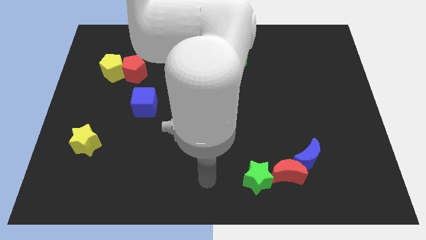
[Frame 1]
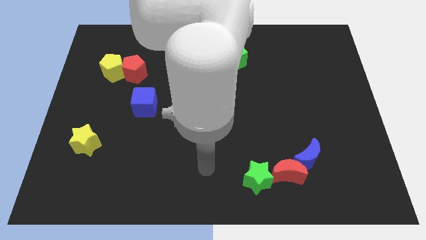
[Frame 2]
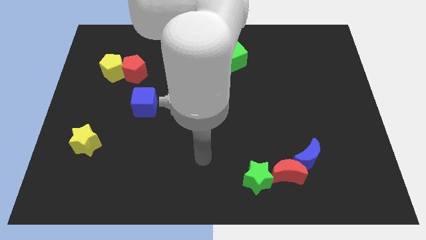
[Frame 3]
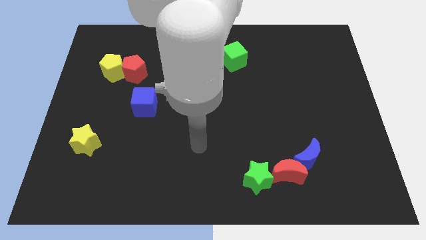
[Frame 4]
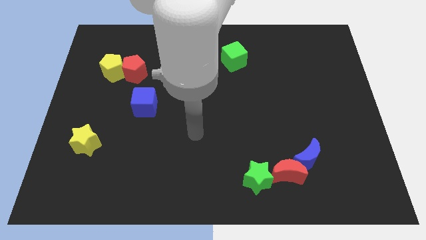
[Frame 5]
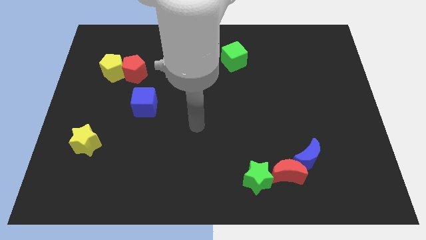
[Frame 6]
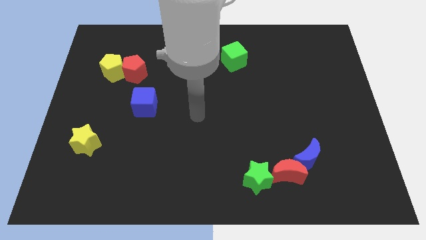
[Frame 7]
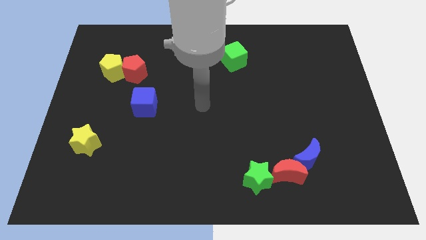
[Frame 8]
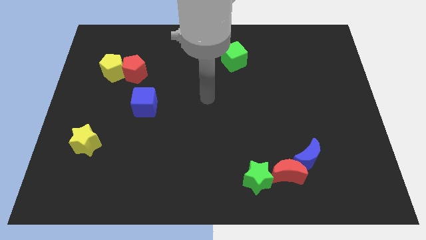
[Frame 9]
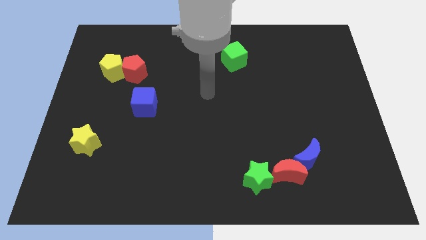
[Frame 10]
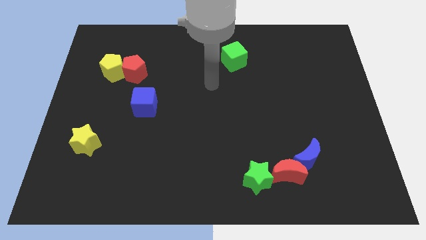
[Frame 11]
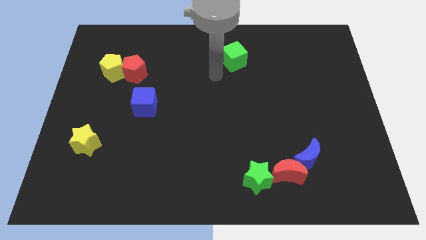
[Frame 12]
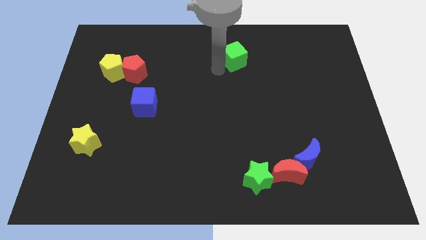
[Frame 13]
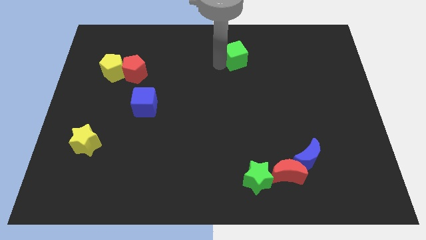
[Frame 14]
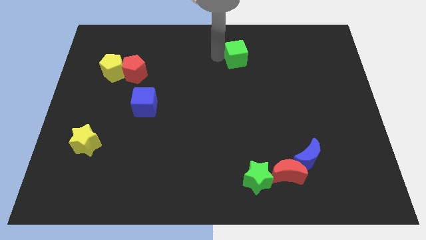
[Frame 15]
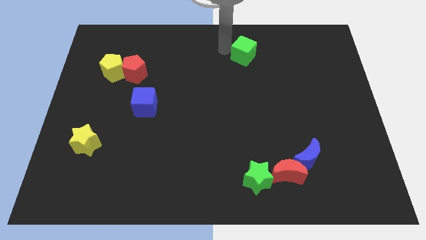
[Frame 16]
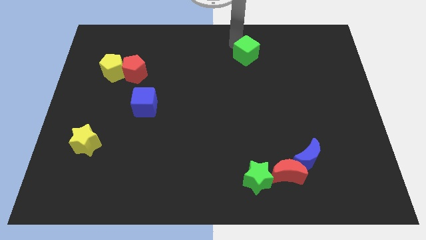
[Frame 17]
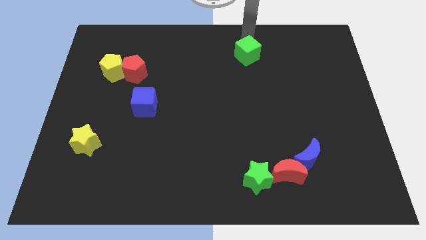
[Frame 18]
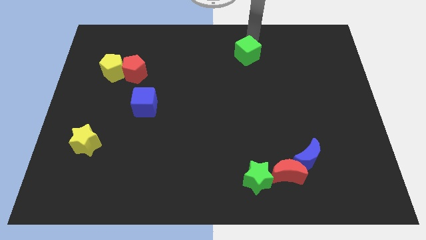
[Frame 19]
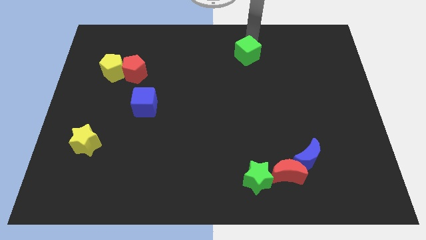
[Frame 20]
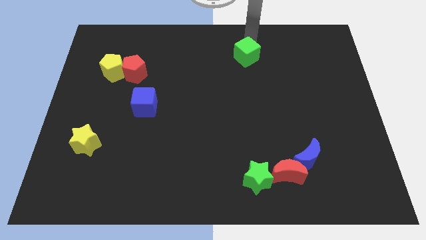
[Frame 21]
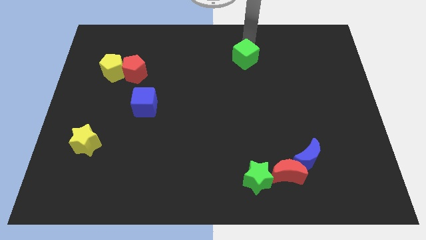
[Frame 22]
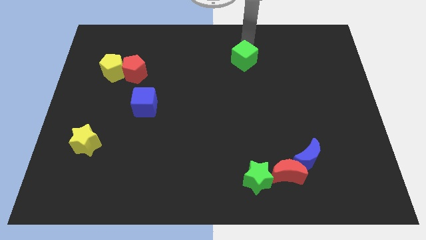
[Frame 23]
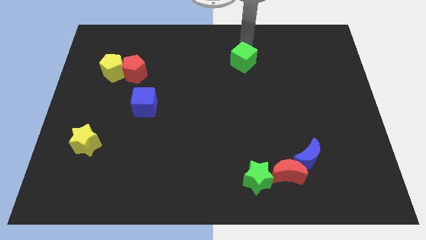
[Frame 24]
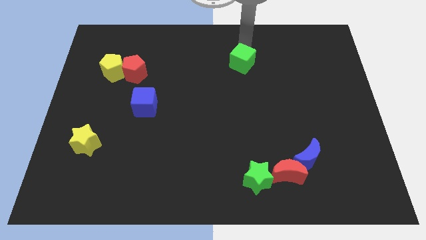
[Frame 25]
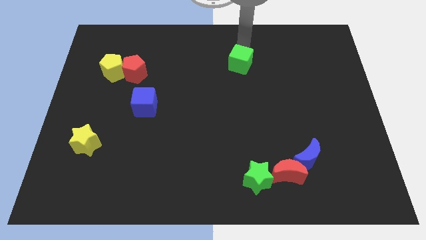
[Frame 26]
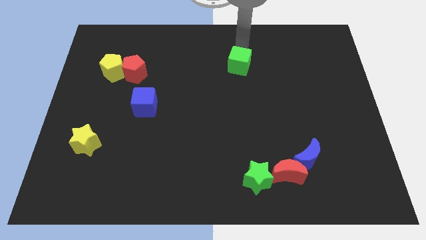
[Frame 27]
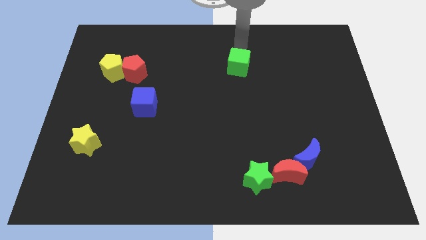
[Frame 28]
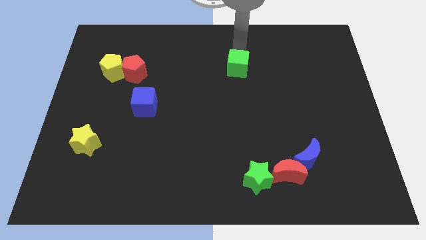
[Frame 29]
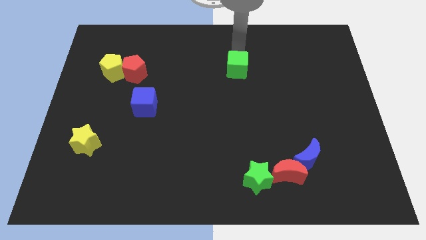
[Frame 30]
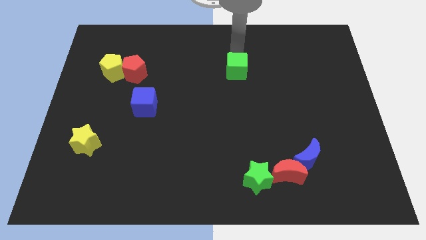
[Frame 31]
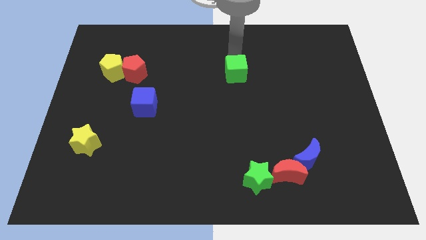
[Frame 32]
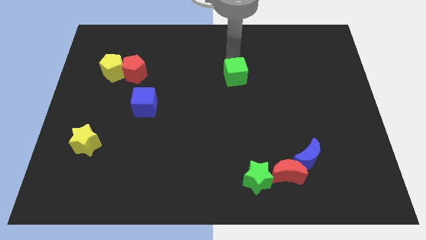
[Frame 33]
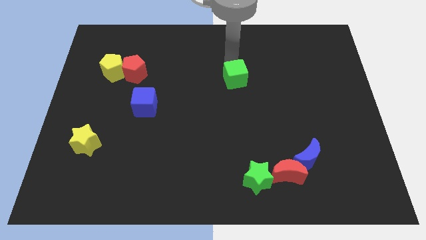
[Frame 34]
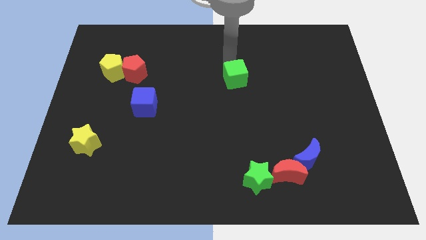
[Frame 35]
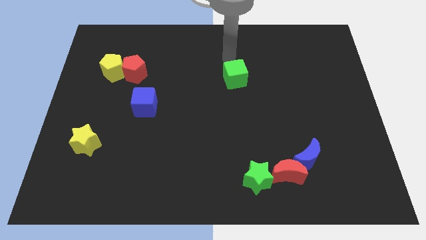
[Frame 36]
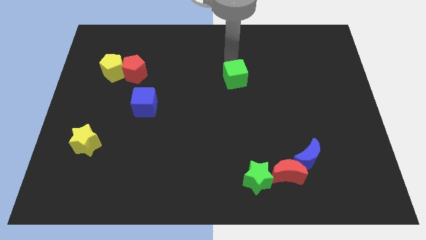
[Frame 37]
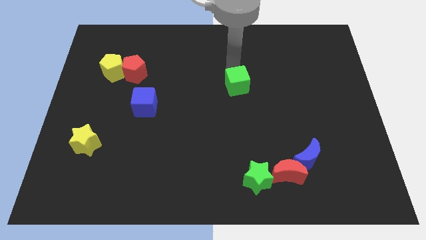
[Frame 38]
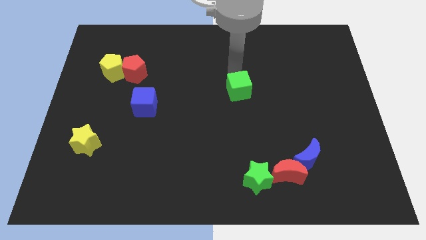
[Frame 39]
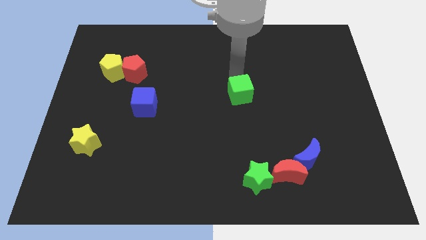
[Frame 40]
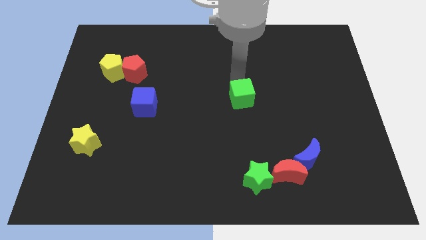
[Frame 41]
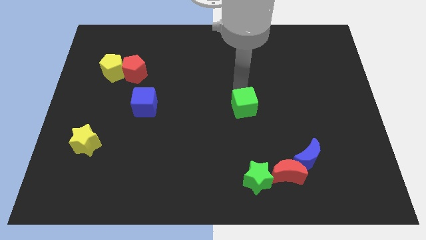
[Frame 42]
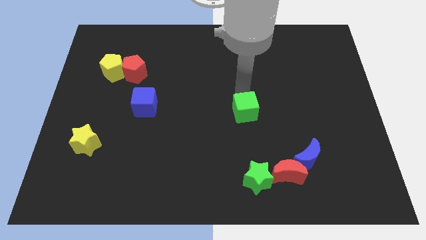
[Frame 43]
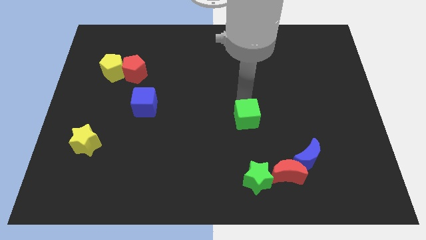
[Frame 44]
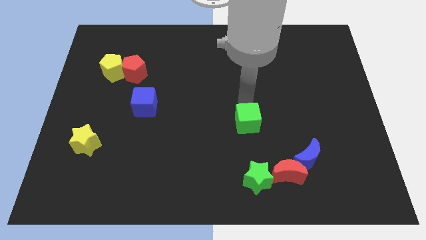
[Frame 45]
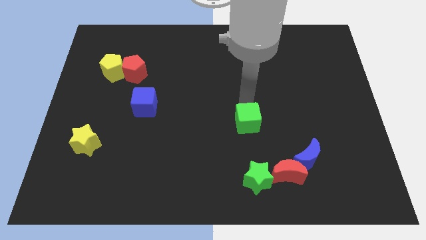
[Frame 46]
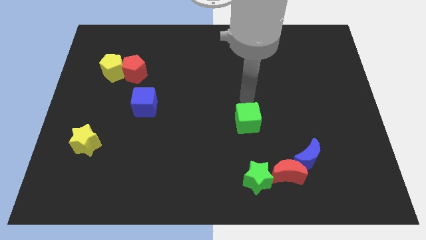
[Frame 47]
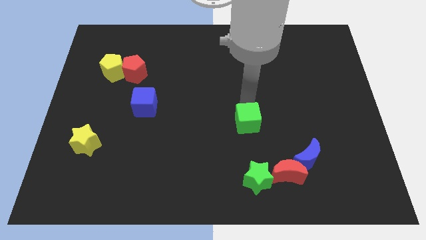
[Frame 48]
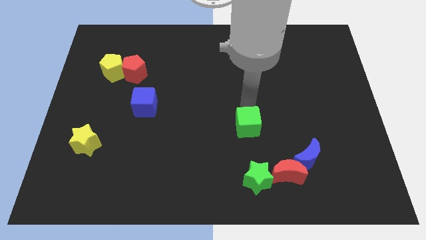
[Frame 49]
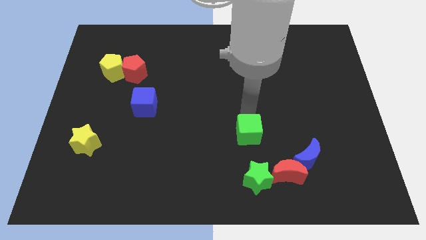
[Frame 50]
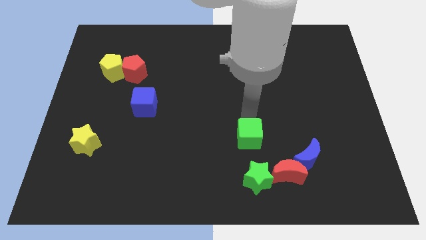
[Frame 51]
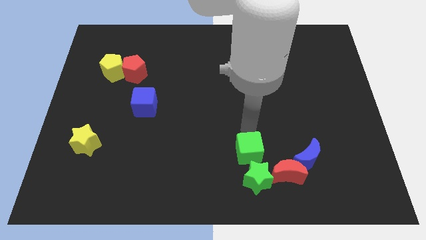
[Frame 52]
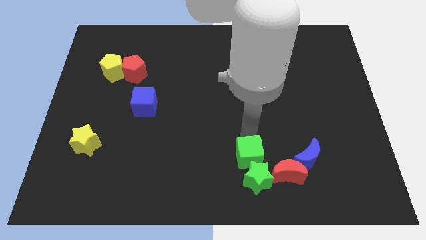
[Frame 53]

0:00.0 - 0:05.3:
put the green cube next to the green star

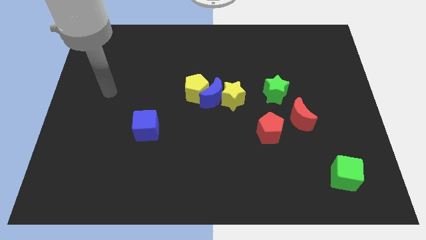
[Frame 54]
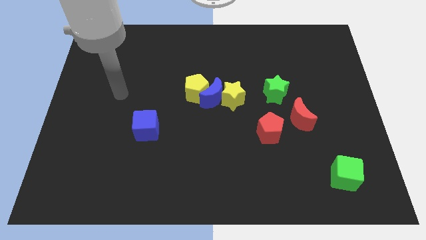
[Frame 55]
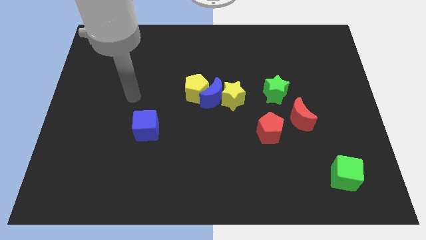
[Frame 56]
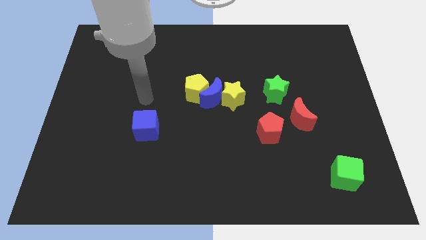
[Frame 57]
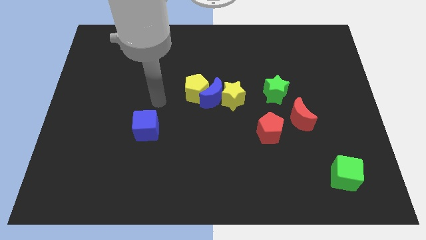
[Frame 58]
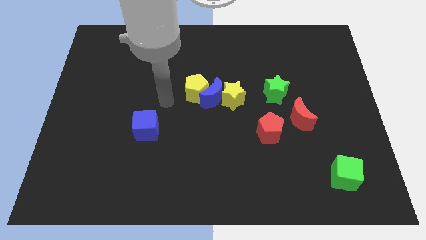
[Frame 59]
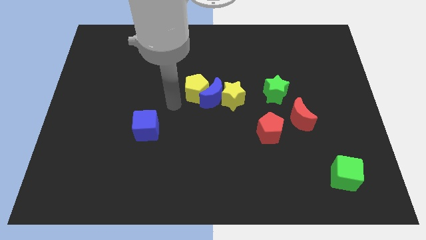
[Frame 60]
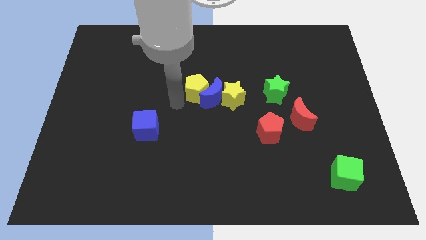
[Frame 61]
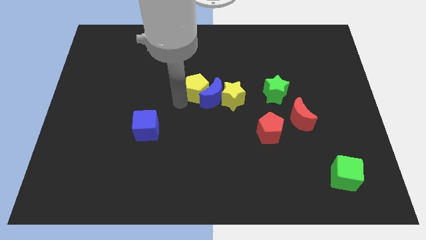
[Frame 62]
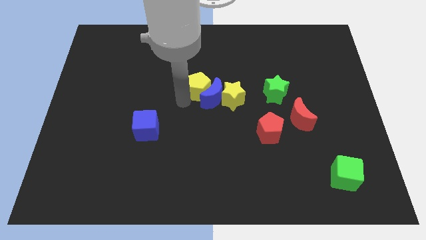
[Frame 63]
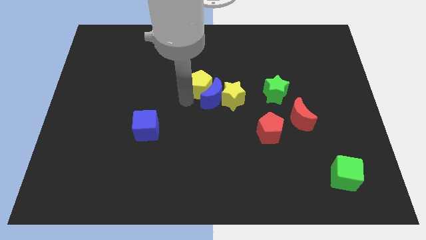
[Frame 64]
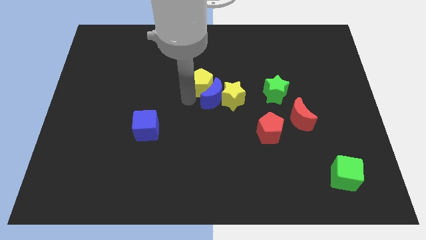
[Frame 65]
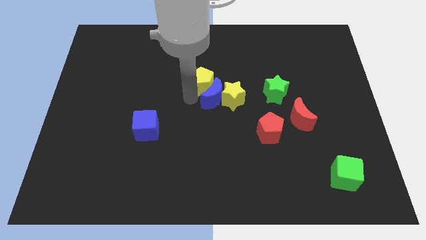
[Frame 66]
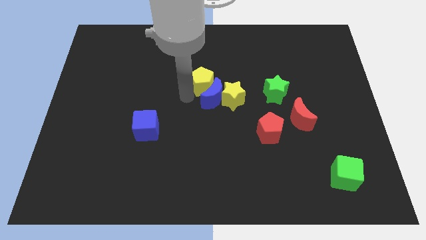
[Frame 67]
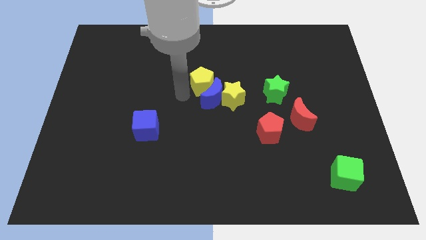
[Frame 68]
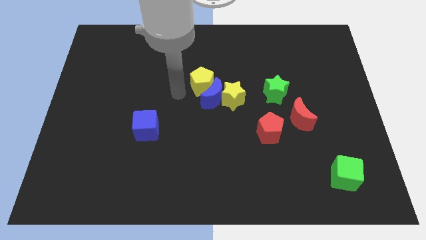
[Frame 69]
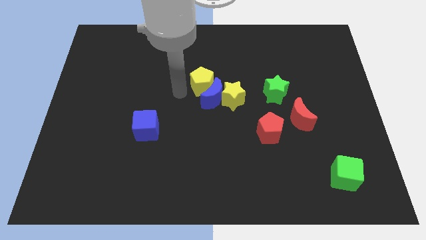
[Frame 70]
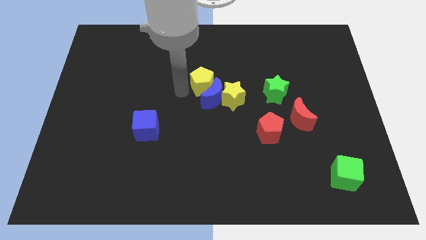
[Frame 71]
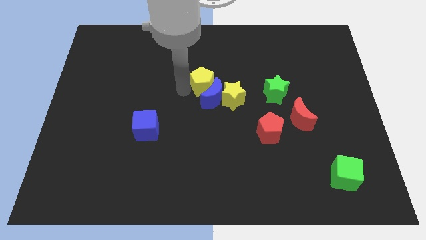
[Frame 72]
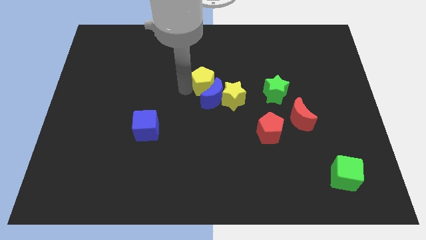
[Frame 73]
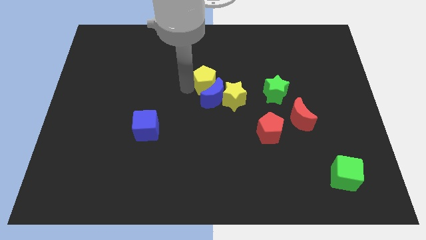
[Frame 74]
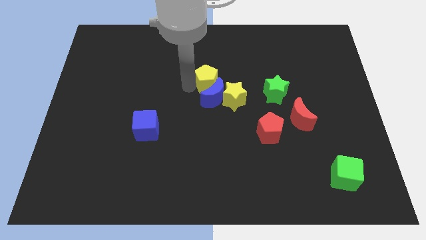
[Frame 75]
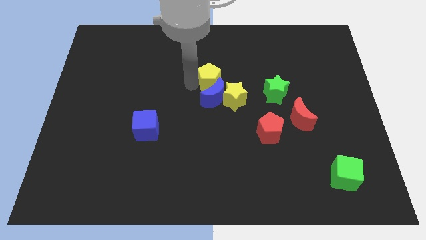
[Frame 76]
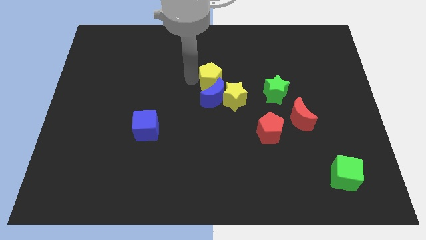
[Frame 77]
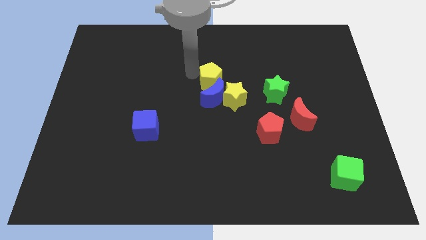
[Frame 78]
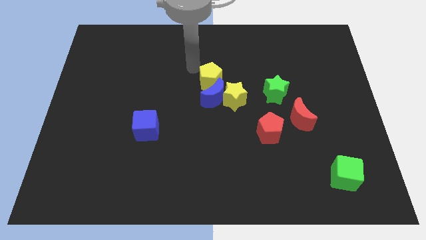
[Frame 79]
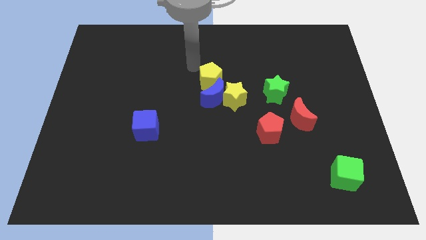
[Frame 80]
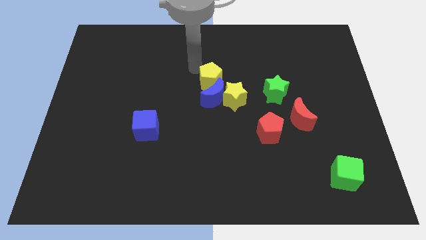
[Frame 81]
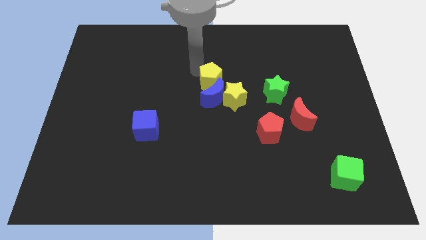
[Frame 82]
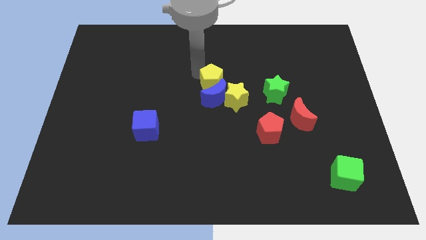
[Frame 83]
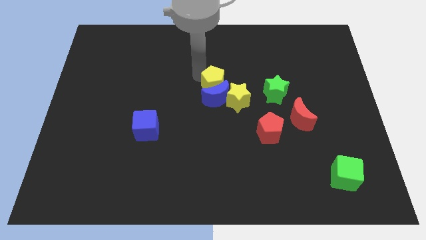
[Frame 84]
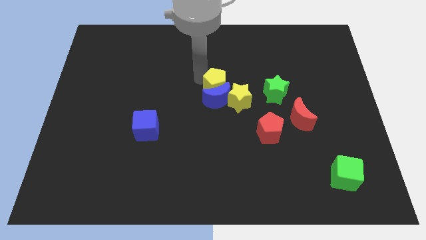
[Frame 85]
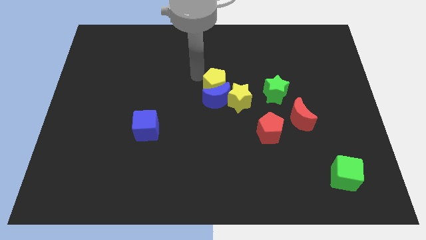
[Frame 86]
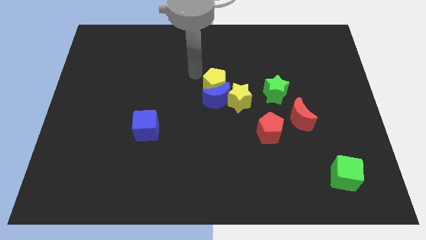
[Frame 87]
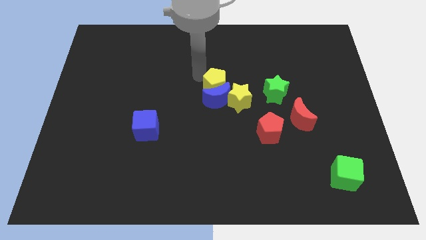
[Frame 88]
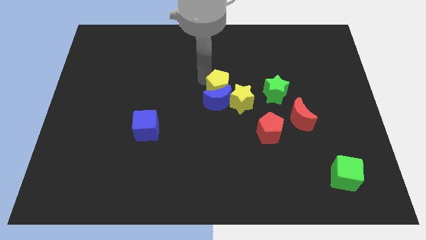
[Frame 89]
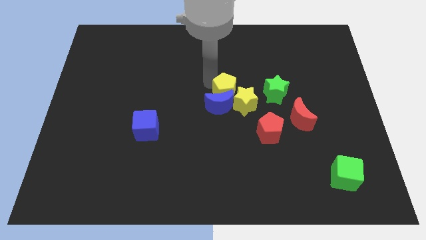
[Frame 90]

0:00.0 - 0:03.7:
slide the yellow pentagon towards the yellow star
